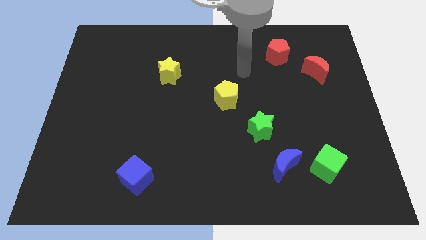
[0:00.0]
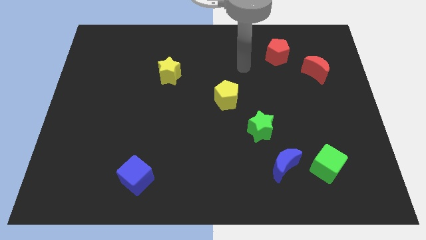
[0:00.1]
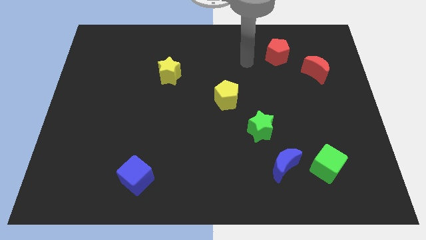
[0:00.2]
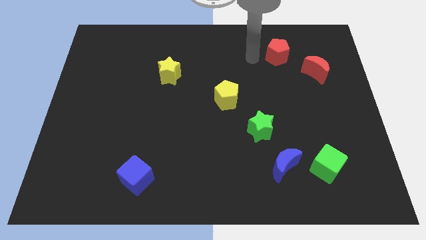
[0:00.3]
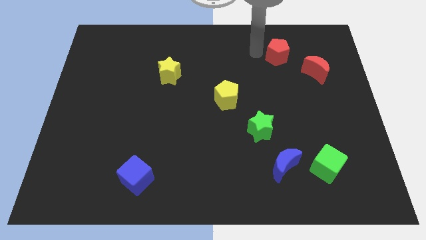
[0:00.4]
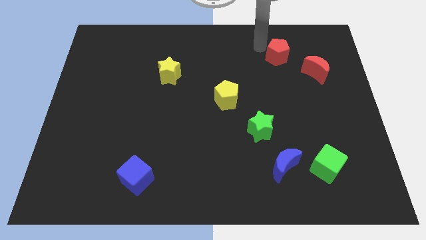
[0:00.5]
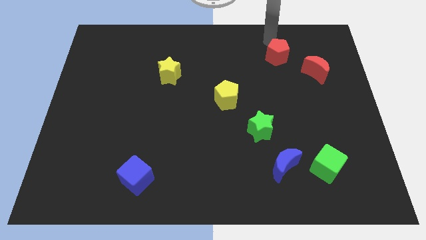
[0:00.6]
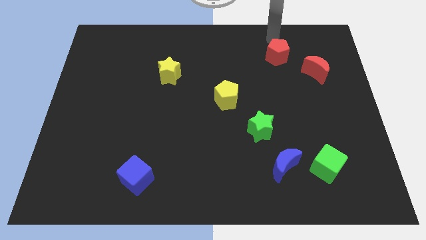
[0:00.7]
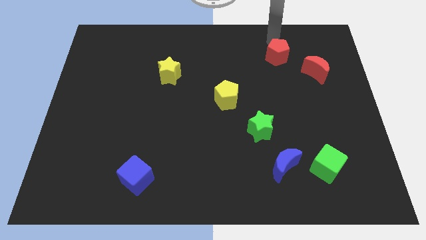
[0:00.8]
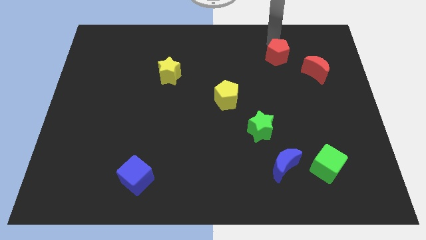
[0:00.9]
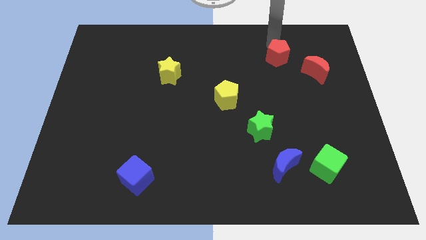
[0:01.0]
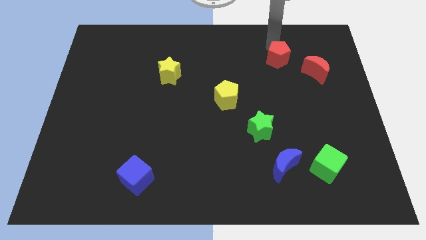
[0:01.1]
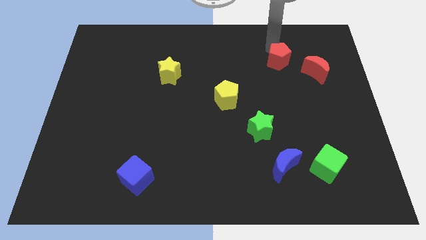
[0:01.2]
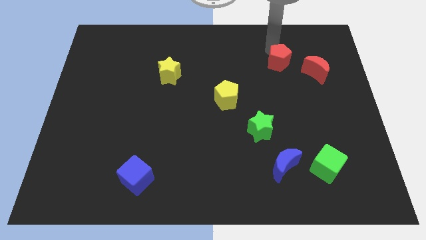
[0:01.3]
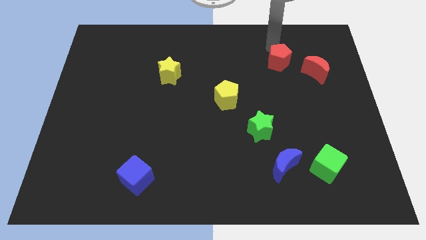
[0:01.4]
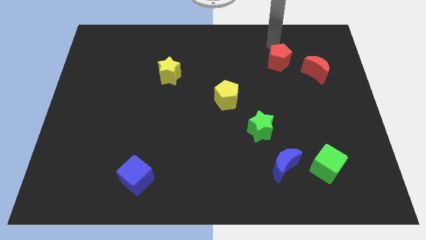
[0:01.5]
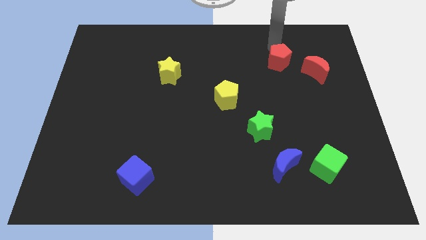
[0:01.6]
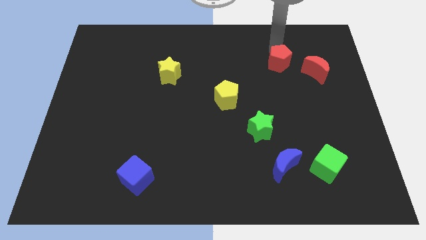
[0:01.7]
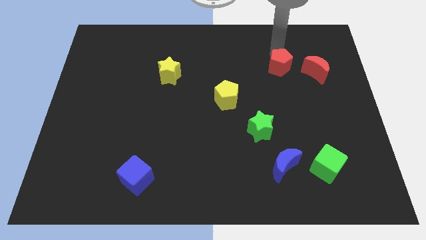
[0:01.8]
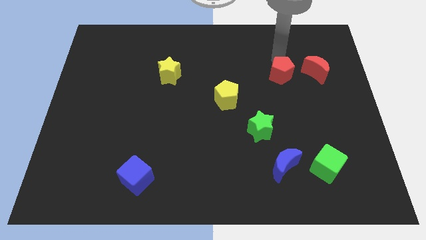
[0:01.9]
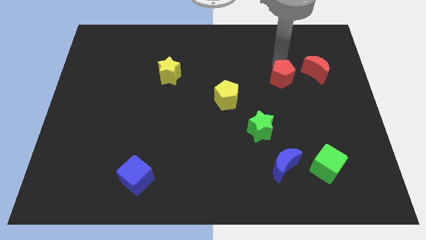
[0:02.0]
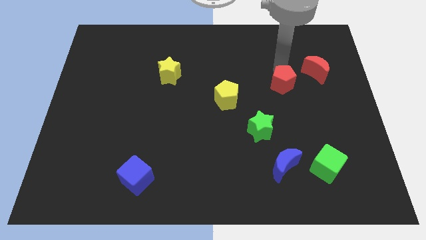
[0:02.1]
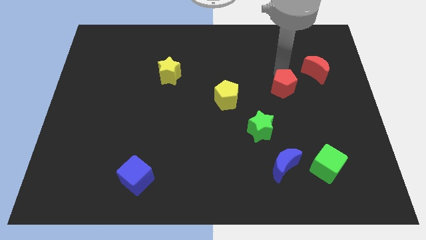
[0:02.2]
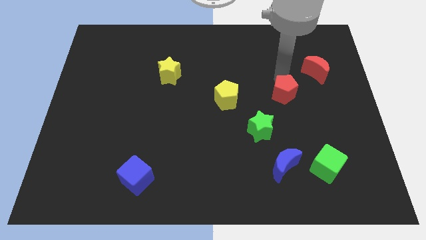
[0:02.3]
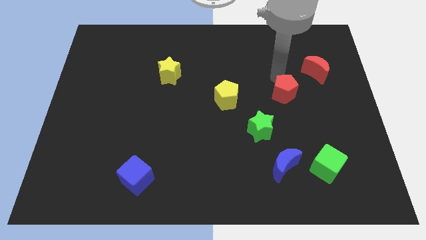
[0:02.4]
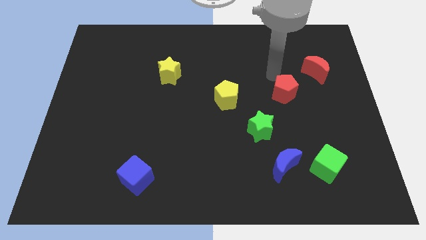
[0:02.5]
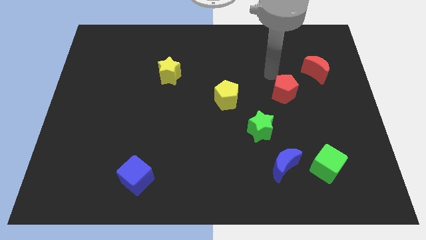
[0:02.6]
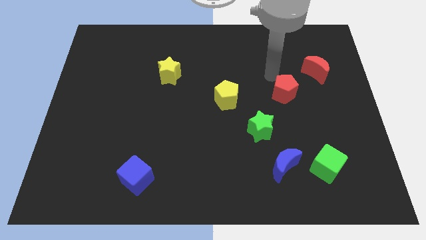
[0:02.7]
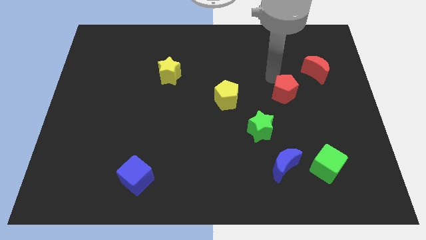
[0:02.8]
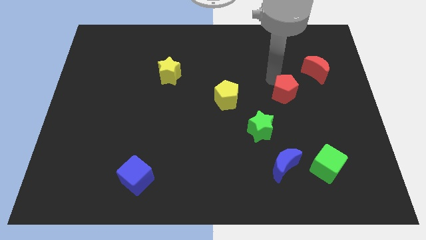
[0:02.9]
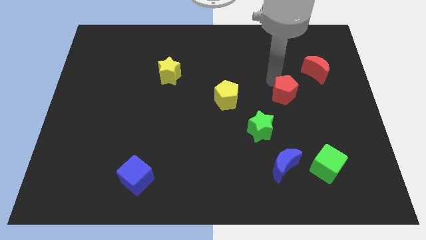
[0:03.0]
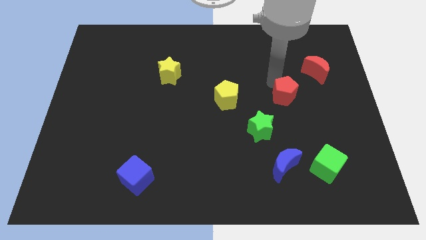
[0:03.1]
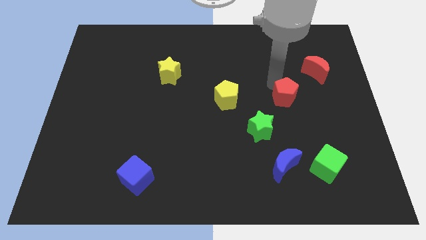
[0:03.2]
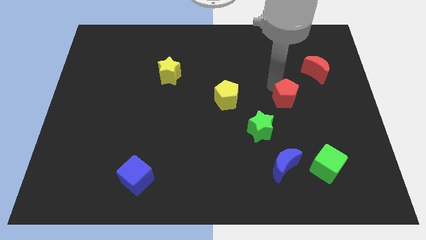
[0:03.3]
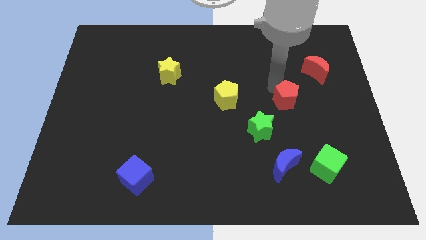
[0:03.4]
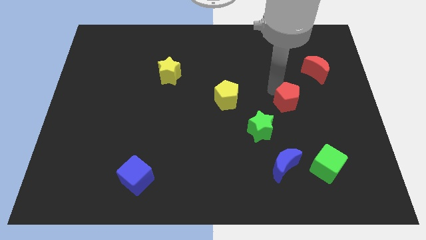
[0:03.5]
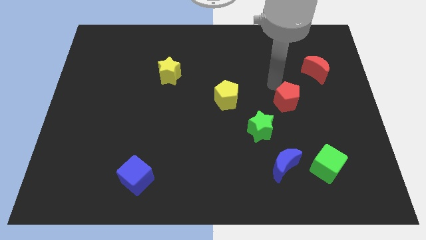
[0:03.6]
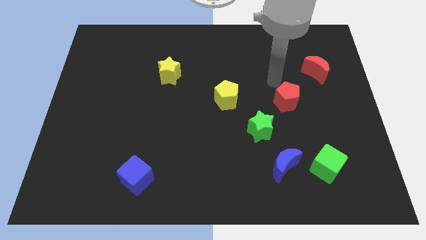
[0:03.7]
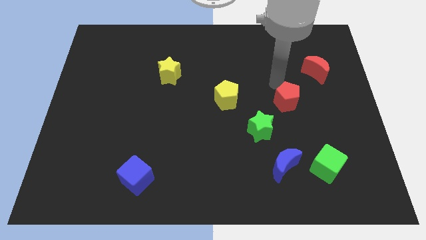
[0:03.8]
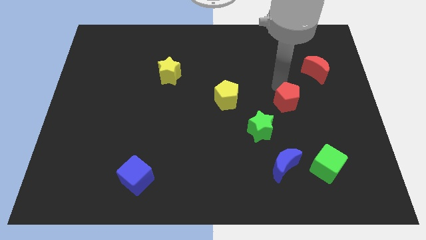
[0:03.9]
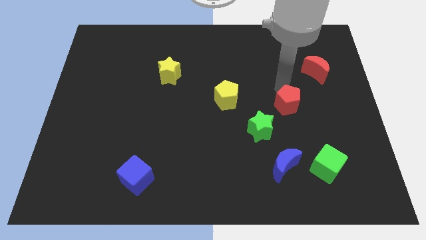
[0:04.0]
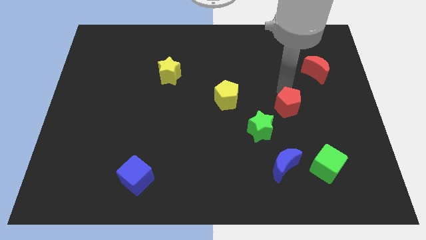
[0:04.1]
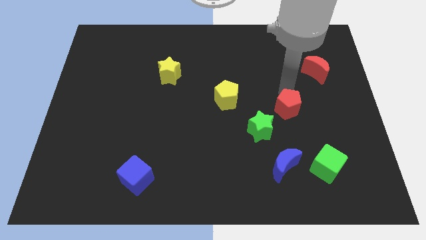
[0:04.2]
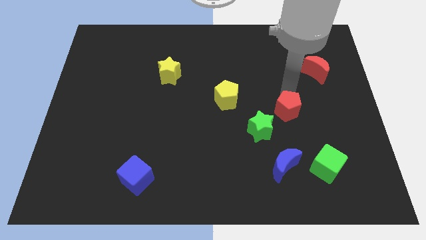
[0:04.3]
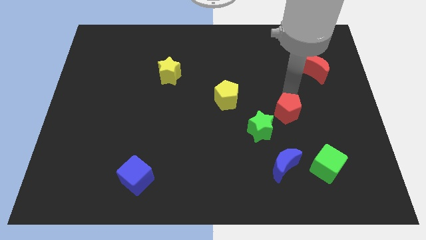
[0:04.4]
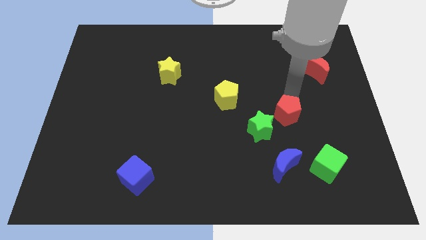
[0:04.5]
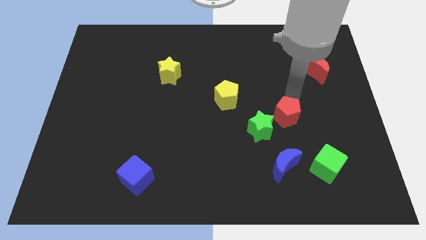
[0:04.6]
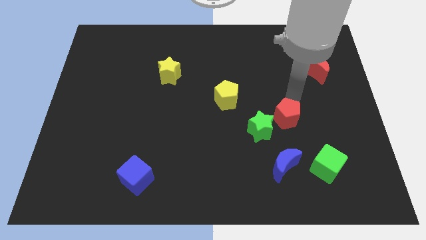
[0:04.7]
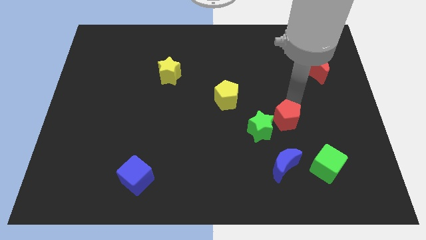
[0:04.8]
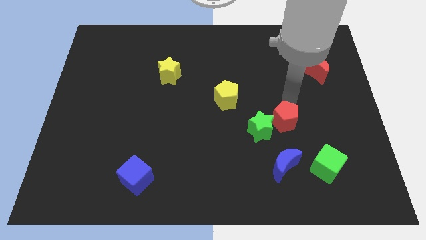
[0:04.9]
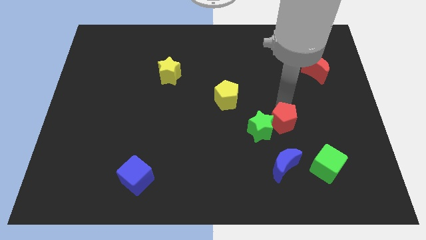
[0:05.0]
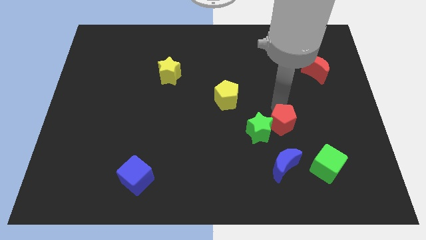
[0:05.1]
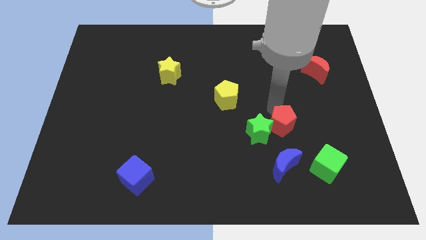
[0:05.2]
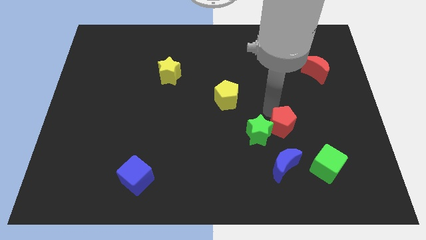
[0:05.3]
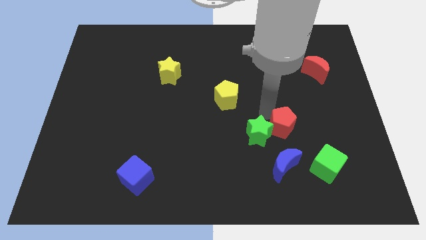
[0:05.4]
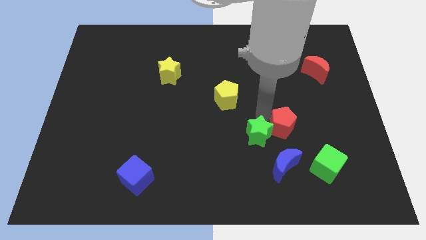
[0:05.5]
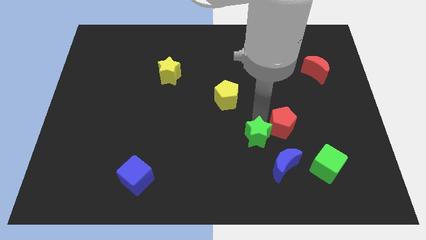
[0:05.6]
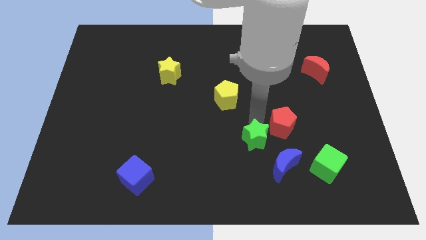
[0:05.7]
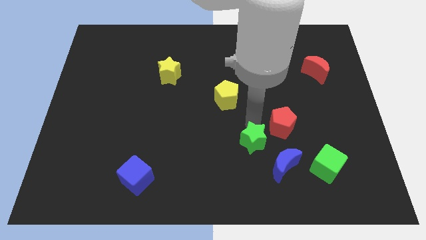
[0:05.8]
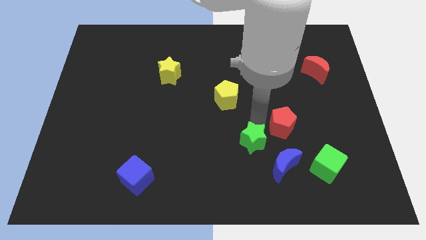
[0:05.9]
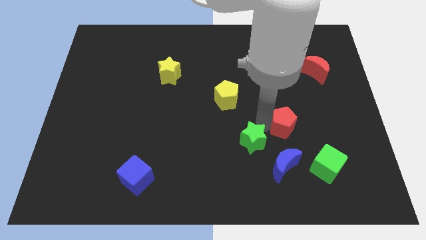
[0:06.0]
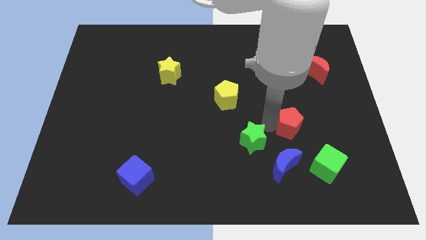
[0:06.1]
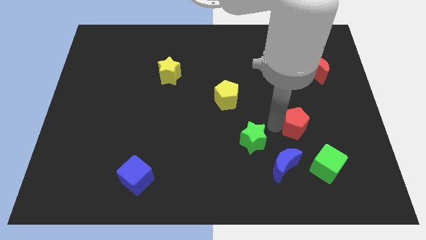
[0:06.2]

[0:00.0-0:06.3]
push the red pentagon diagonally up and to the right of the blue moon

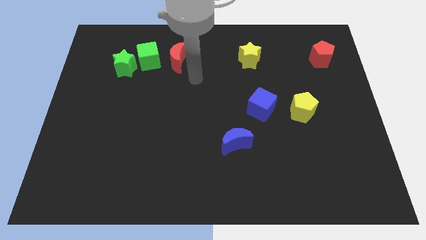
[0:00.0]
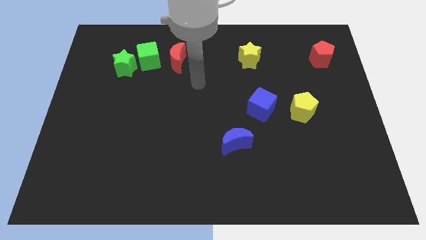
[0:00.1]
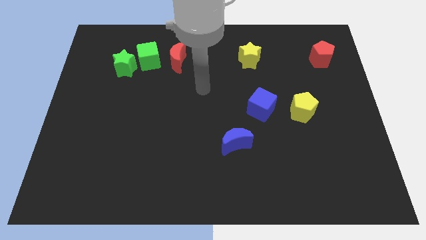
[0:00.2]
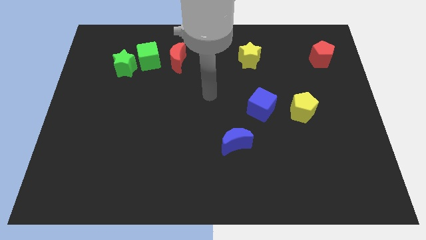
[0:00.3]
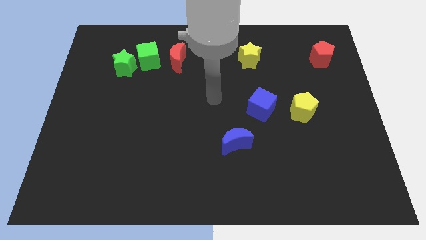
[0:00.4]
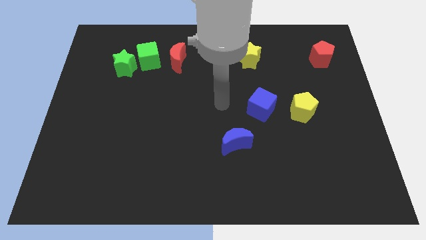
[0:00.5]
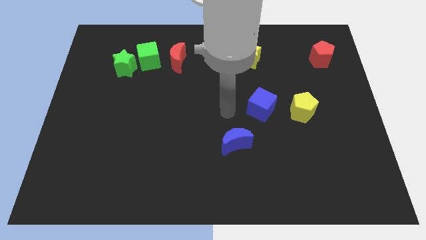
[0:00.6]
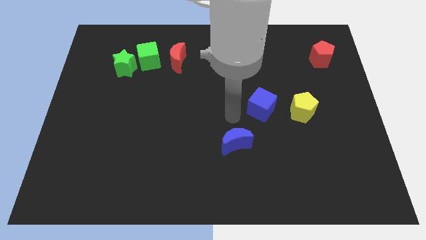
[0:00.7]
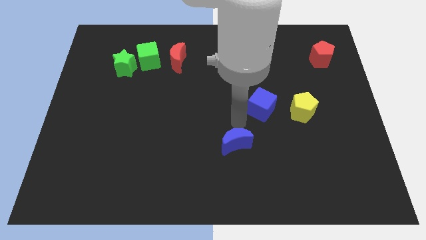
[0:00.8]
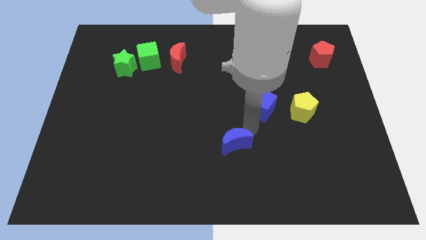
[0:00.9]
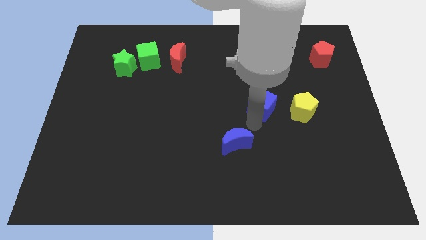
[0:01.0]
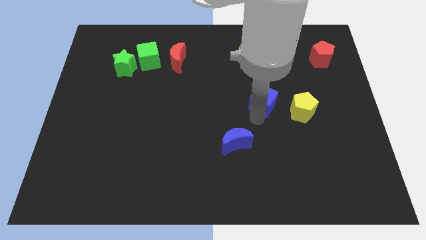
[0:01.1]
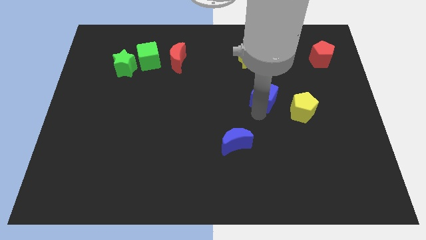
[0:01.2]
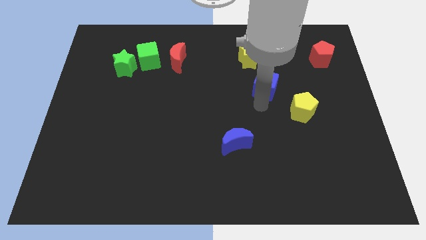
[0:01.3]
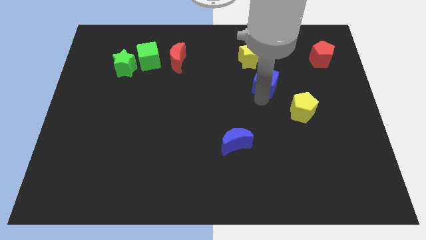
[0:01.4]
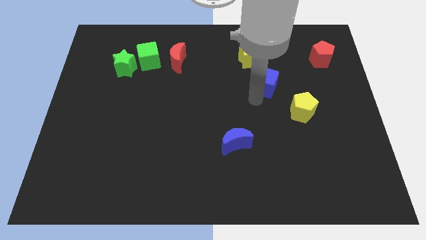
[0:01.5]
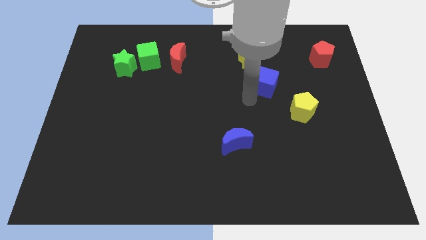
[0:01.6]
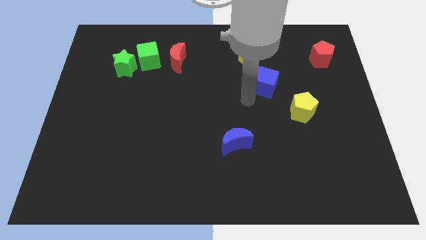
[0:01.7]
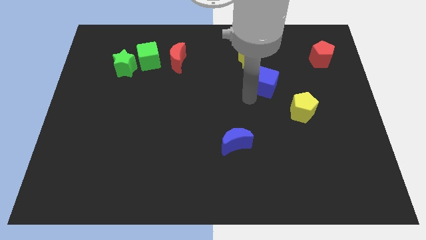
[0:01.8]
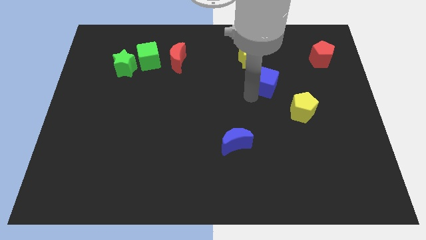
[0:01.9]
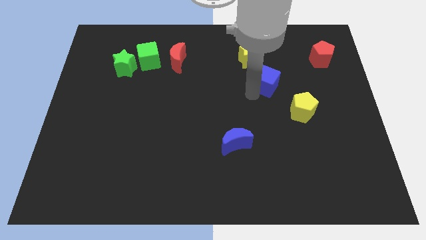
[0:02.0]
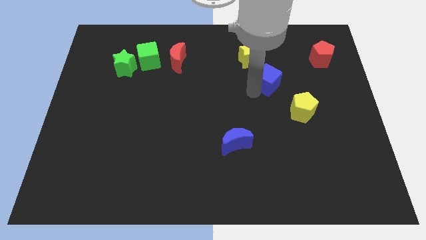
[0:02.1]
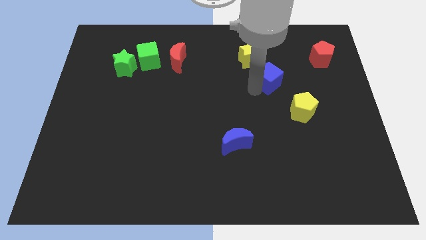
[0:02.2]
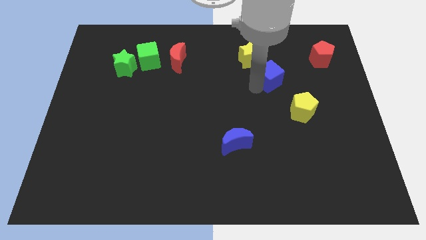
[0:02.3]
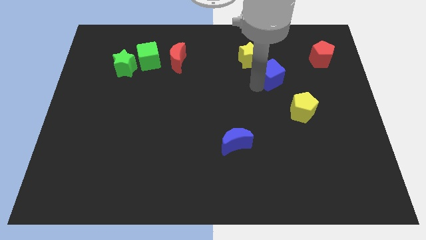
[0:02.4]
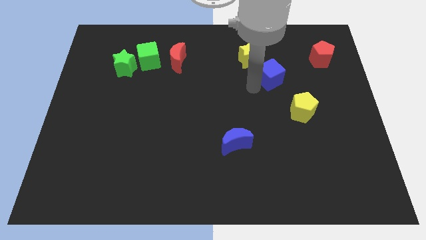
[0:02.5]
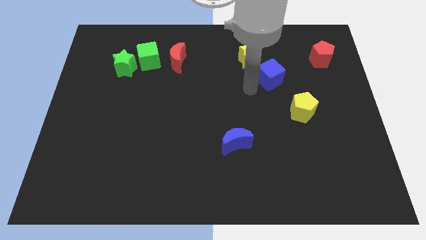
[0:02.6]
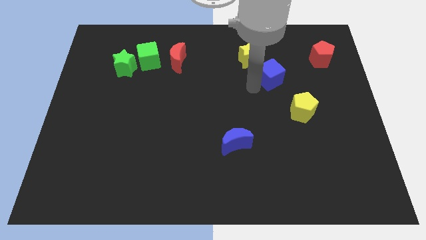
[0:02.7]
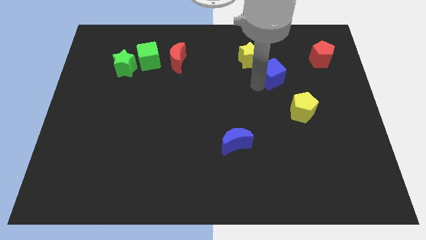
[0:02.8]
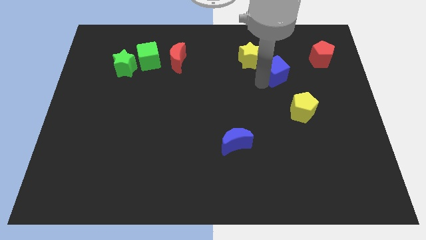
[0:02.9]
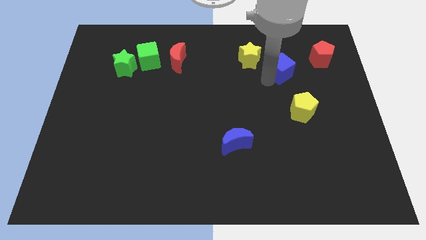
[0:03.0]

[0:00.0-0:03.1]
push the blue cube left of the red pentagon
